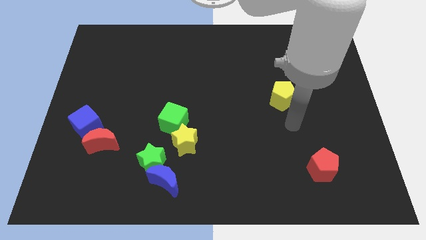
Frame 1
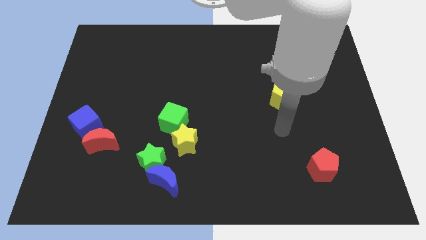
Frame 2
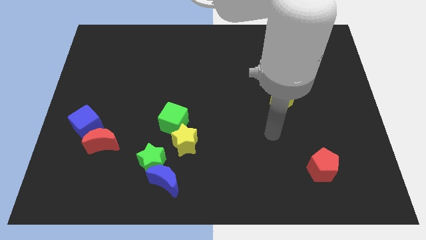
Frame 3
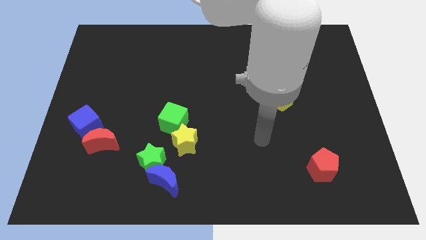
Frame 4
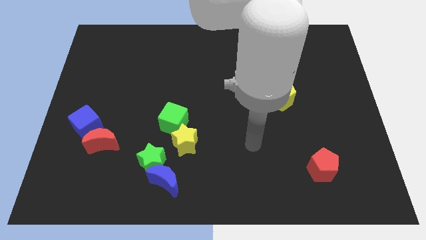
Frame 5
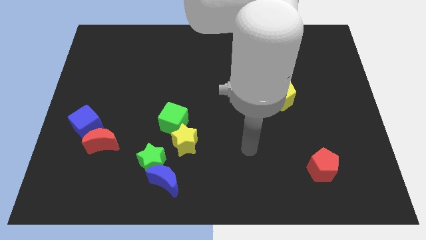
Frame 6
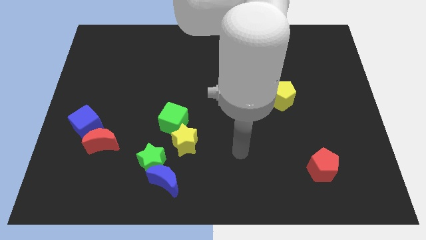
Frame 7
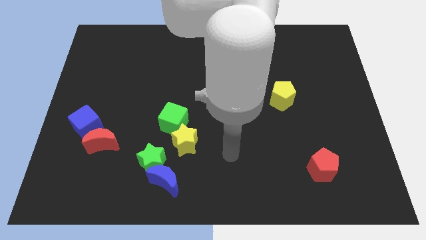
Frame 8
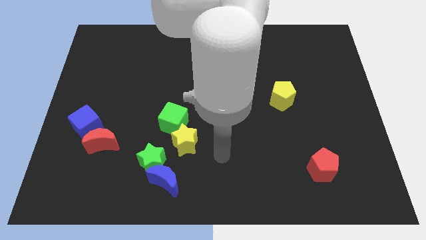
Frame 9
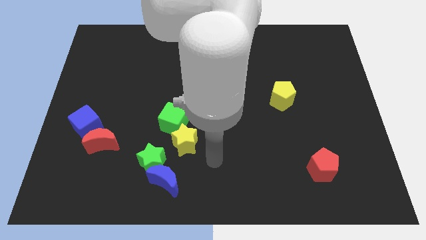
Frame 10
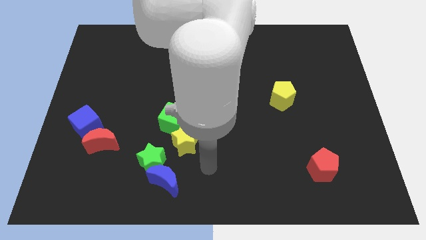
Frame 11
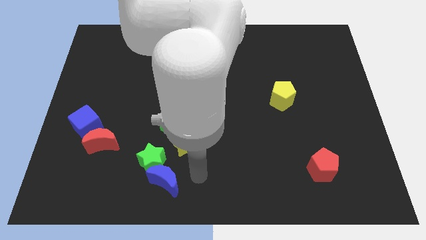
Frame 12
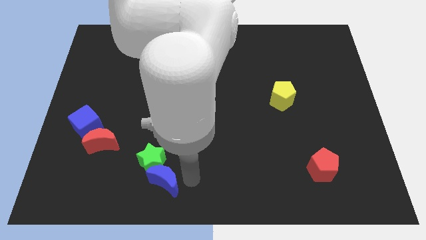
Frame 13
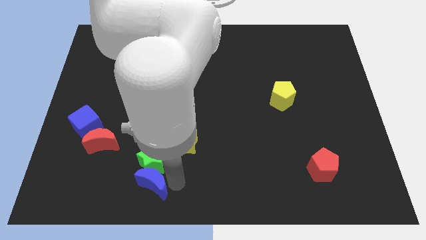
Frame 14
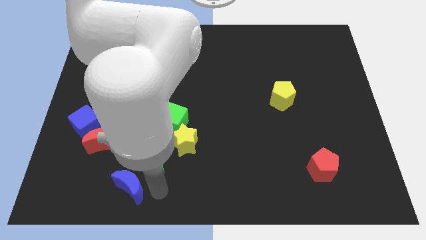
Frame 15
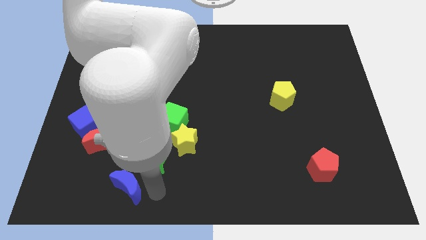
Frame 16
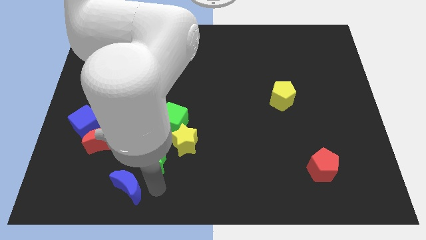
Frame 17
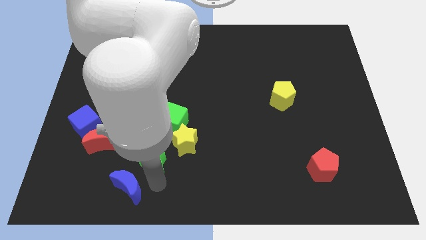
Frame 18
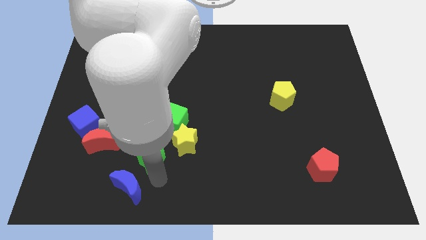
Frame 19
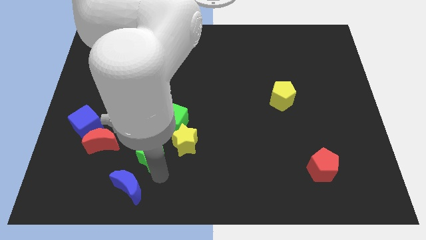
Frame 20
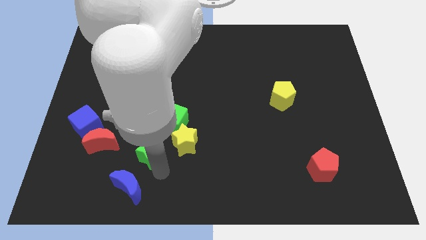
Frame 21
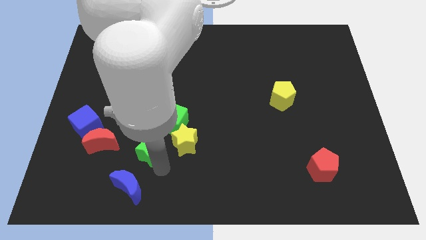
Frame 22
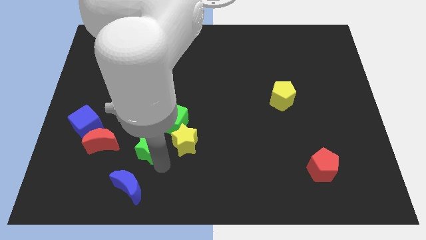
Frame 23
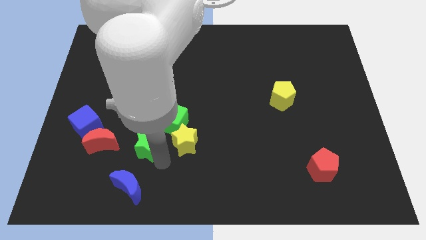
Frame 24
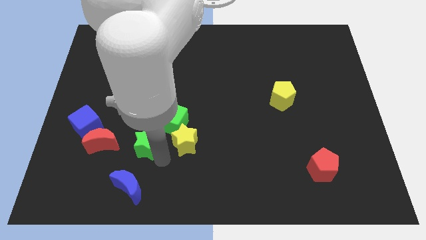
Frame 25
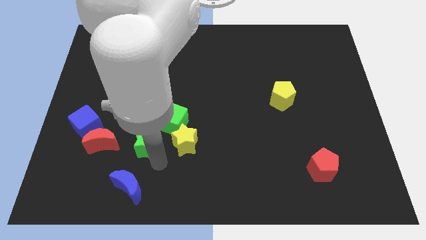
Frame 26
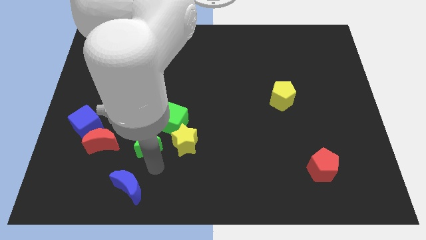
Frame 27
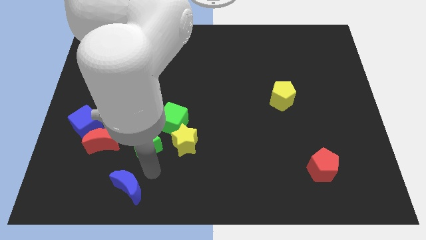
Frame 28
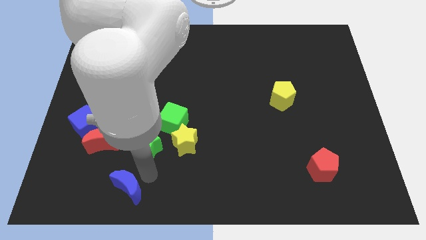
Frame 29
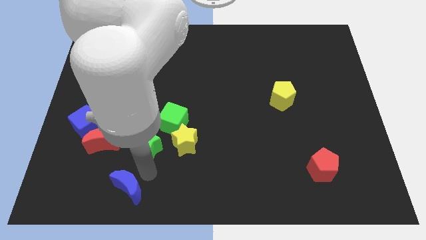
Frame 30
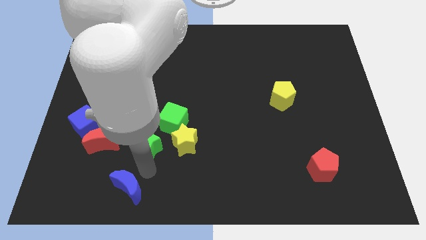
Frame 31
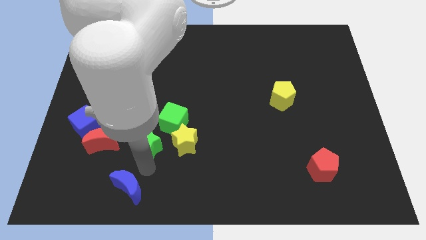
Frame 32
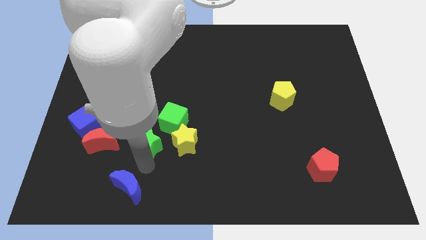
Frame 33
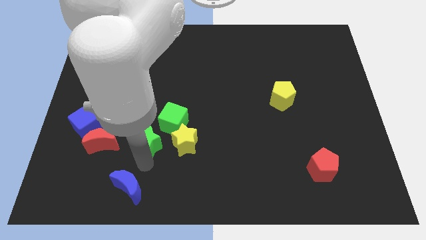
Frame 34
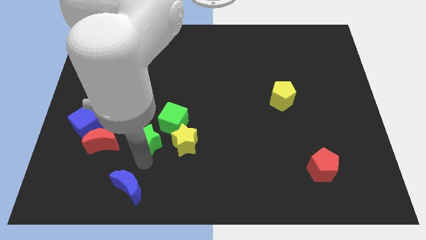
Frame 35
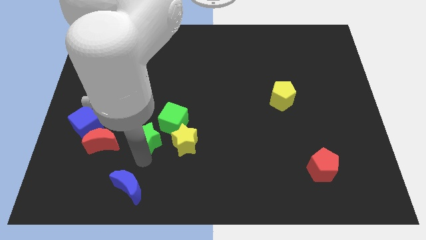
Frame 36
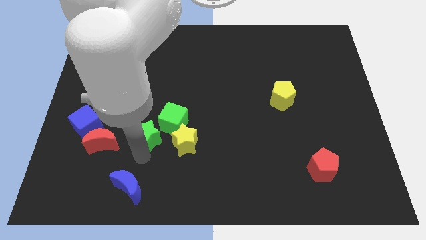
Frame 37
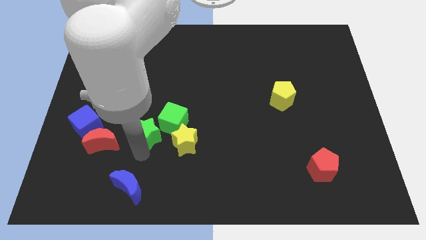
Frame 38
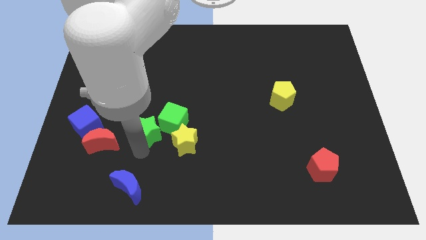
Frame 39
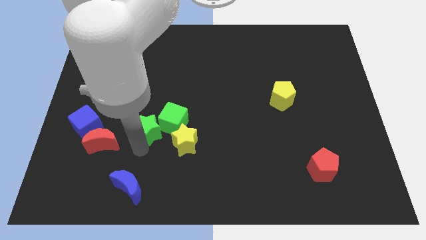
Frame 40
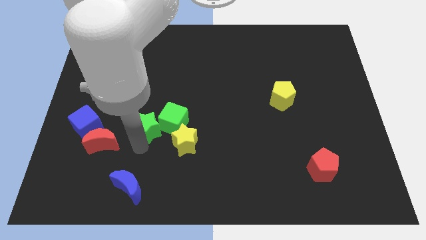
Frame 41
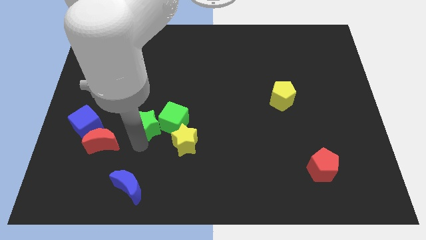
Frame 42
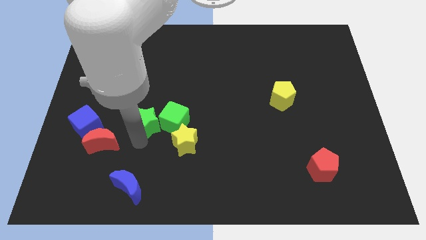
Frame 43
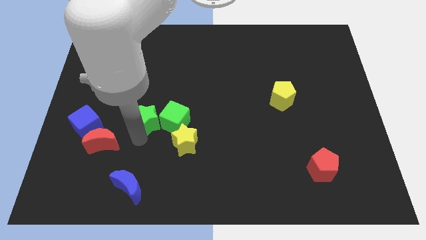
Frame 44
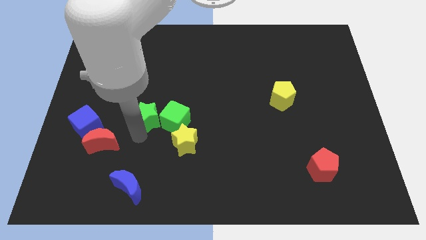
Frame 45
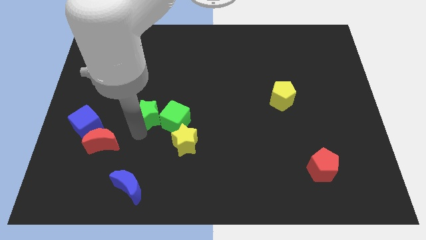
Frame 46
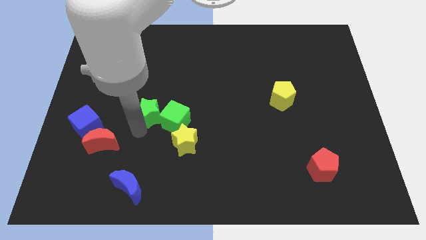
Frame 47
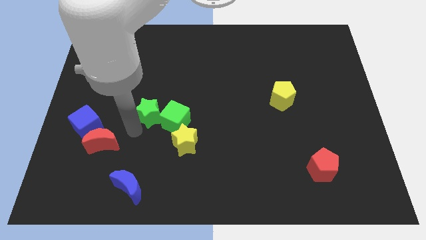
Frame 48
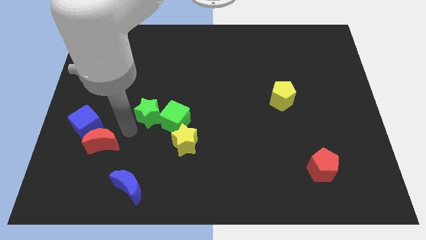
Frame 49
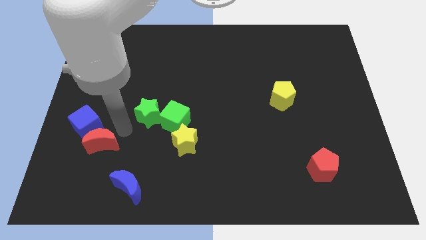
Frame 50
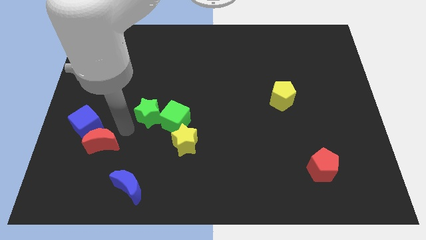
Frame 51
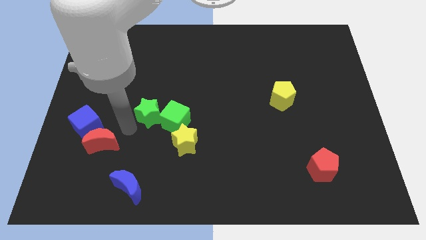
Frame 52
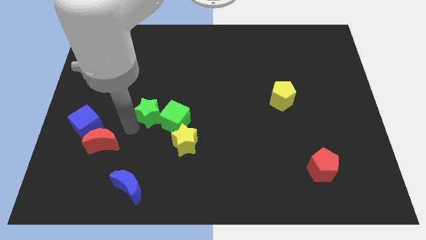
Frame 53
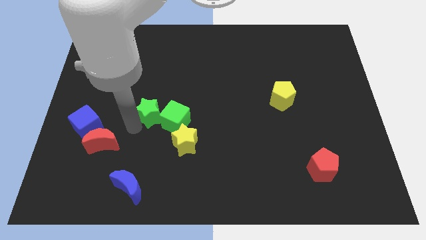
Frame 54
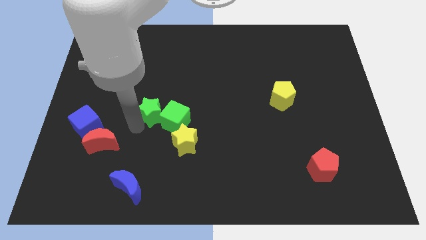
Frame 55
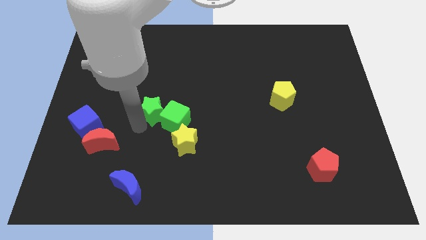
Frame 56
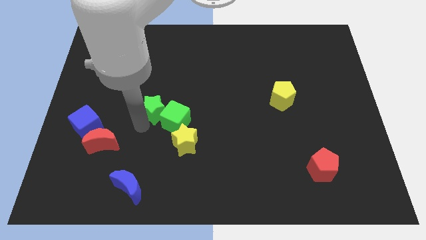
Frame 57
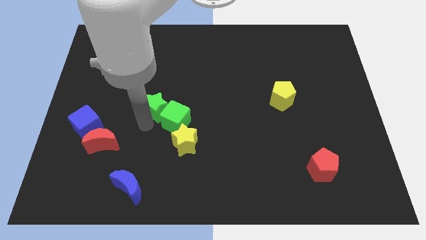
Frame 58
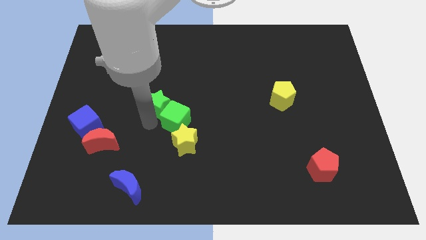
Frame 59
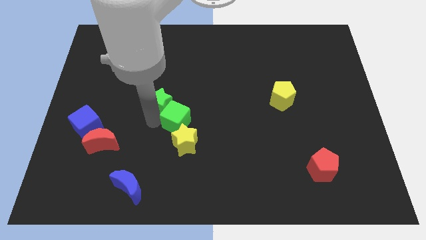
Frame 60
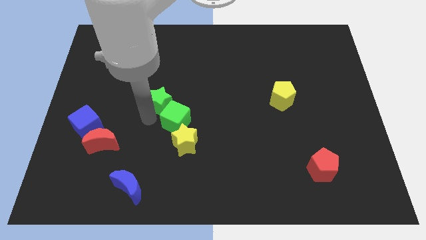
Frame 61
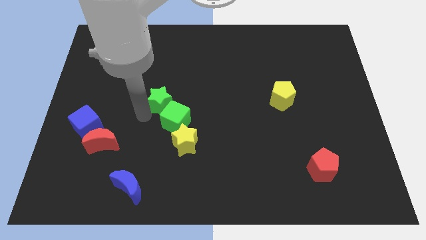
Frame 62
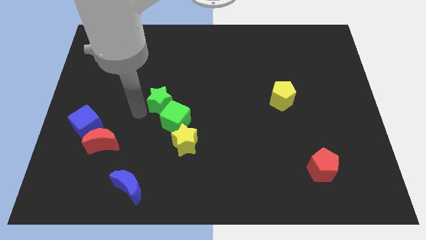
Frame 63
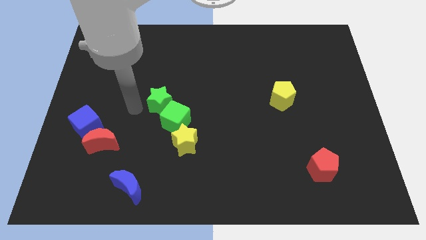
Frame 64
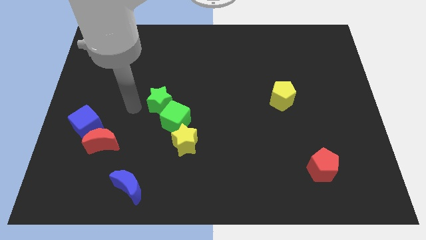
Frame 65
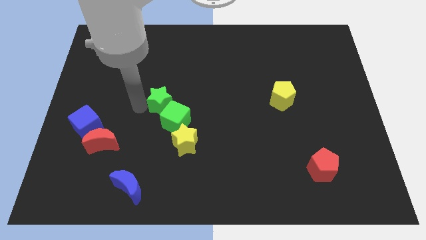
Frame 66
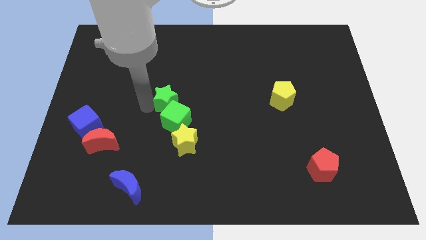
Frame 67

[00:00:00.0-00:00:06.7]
slide the green star somewhat upwards and to the right diagonally

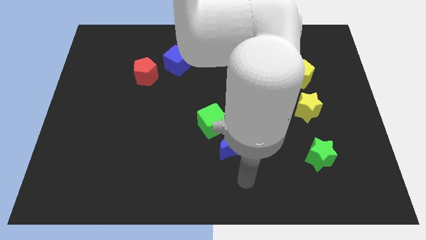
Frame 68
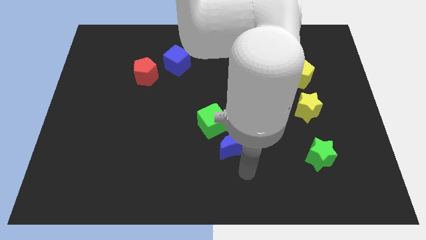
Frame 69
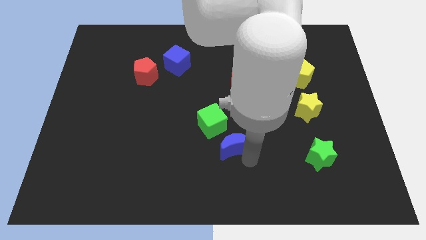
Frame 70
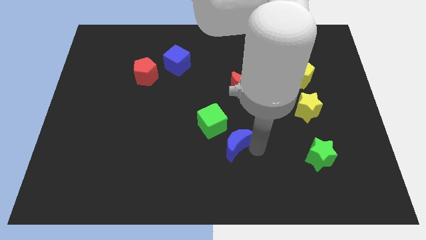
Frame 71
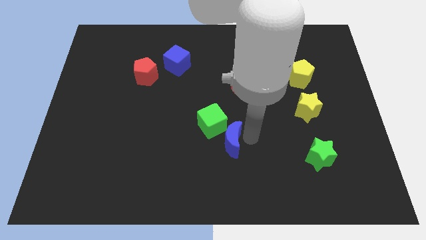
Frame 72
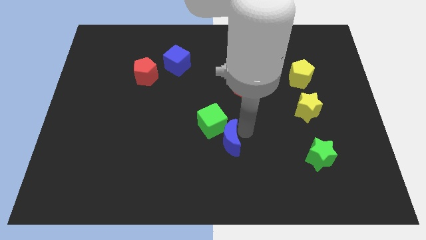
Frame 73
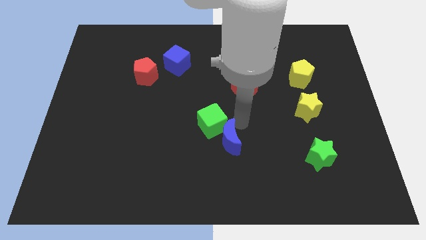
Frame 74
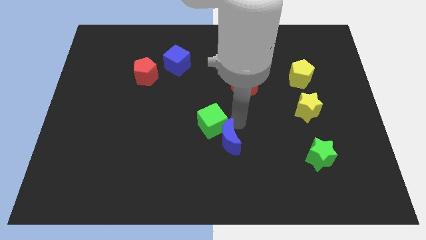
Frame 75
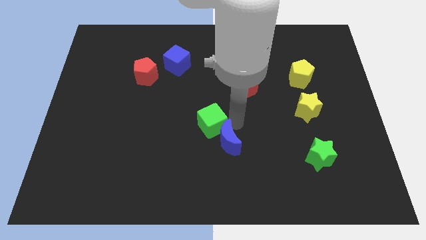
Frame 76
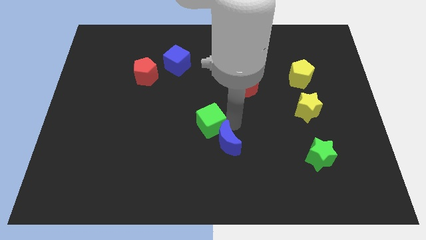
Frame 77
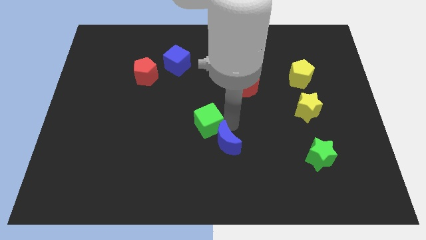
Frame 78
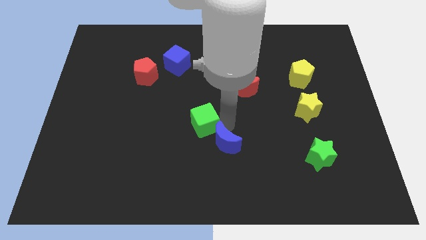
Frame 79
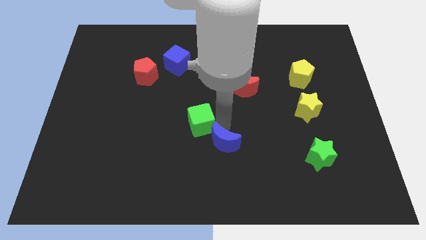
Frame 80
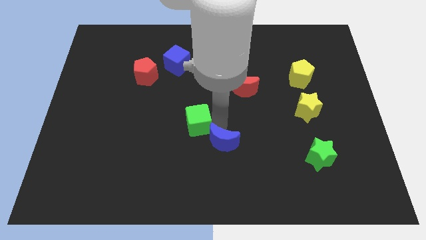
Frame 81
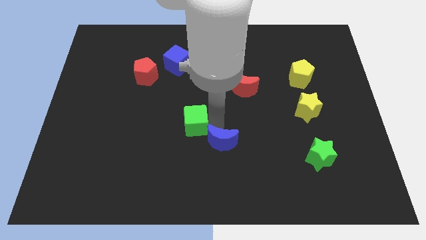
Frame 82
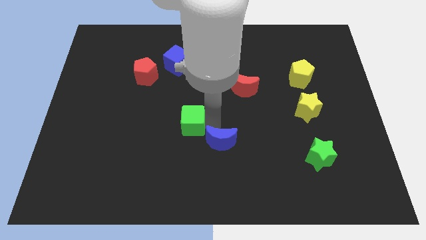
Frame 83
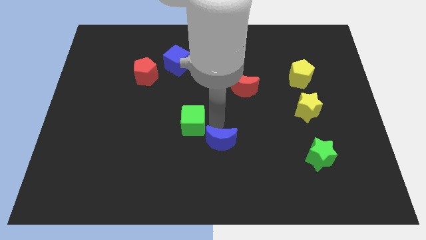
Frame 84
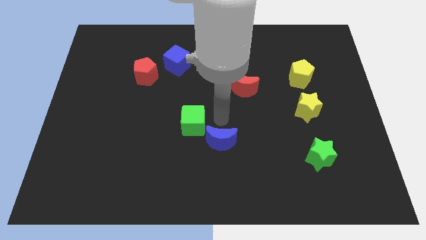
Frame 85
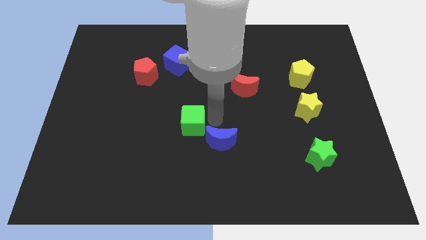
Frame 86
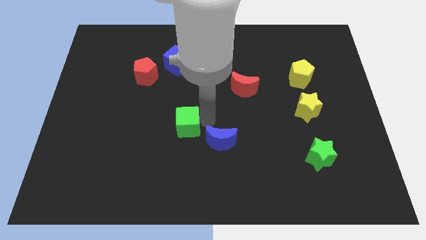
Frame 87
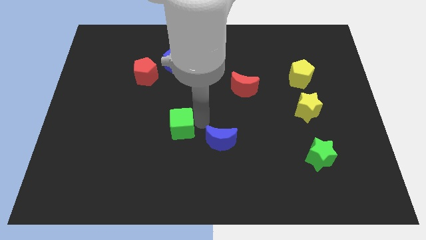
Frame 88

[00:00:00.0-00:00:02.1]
move the green cube to the left a little bit
